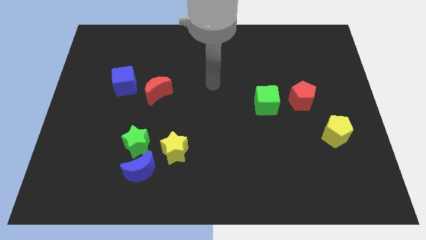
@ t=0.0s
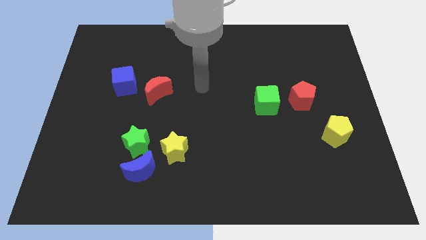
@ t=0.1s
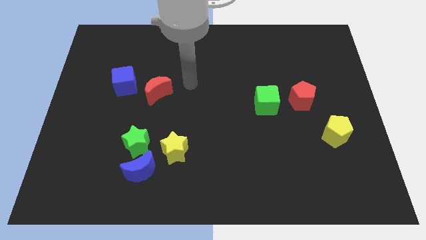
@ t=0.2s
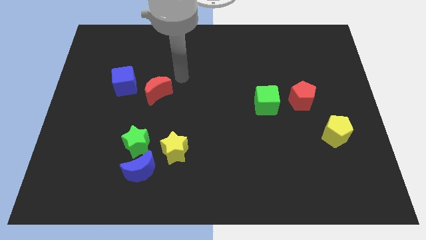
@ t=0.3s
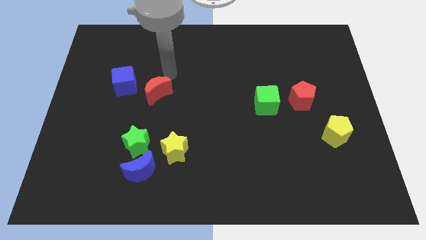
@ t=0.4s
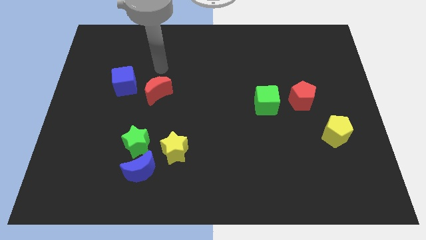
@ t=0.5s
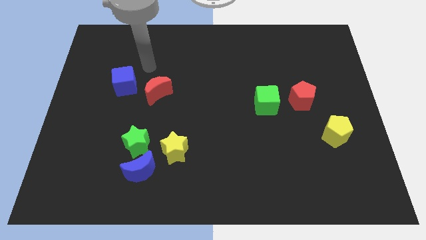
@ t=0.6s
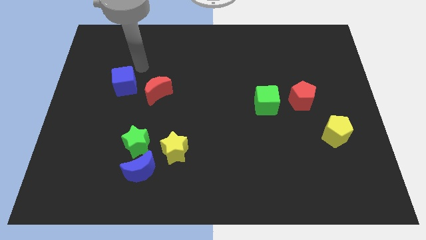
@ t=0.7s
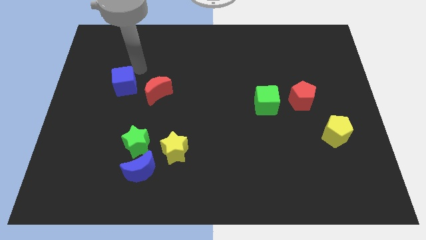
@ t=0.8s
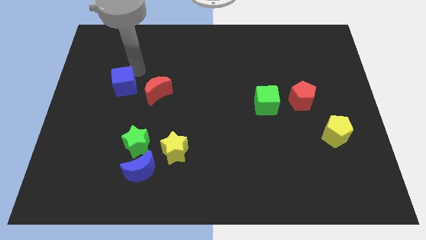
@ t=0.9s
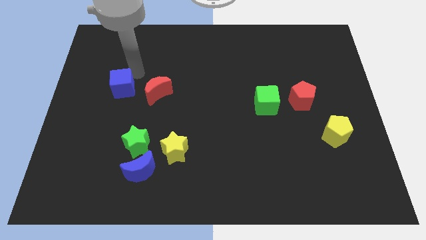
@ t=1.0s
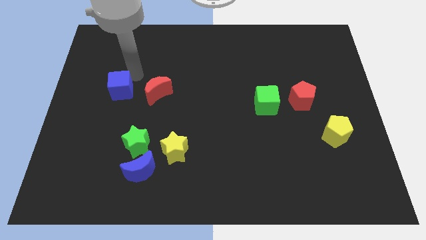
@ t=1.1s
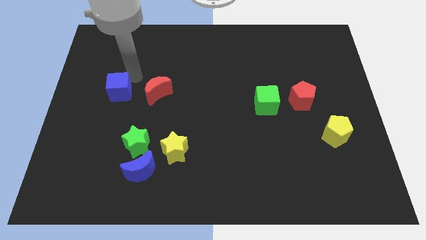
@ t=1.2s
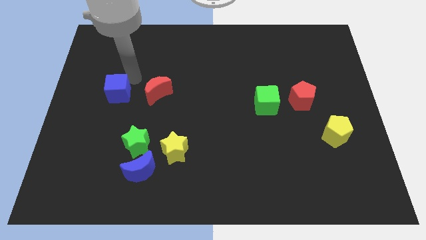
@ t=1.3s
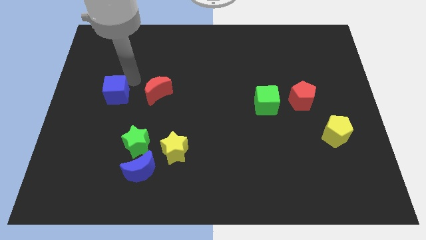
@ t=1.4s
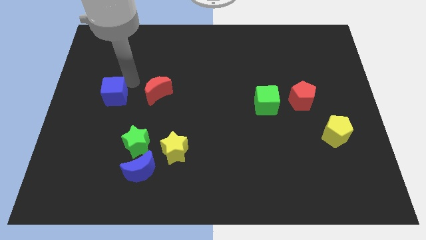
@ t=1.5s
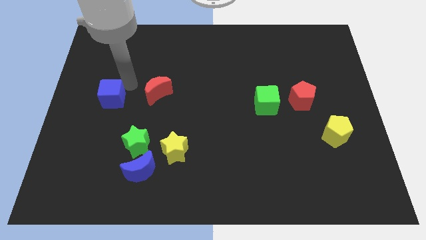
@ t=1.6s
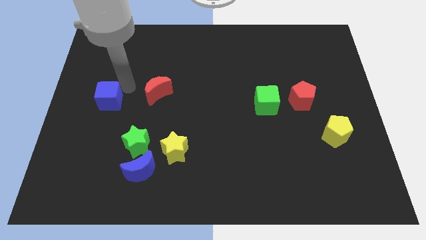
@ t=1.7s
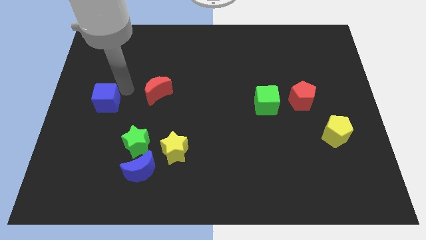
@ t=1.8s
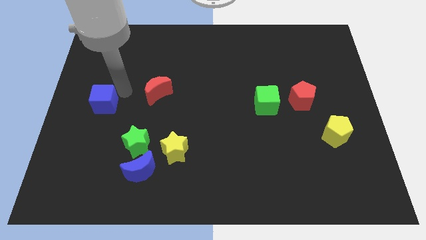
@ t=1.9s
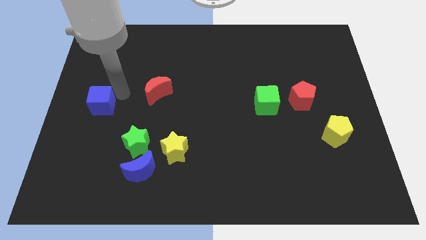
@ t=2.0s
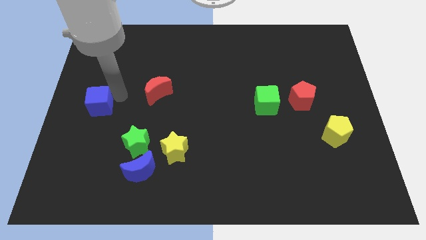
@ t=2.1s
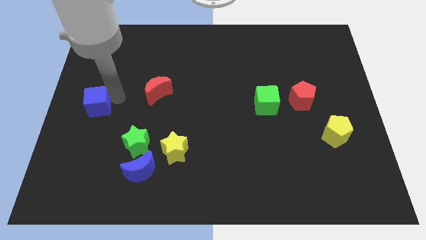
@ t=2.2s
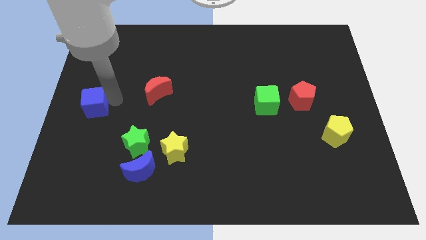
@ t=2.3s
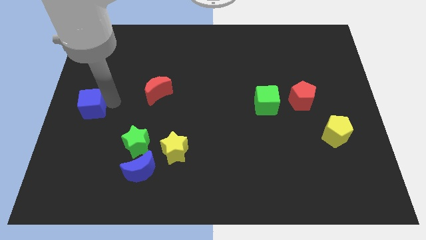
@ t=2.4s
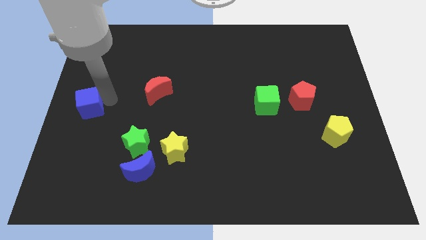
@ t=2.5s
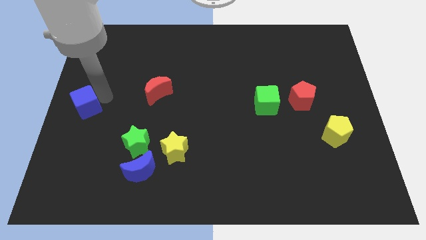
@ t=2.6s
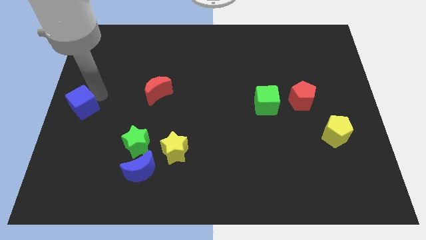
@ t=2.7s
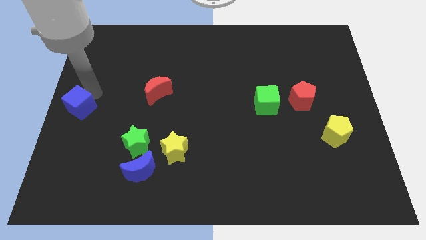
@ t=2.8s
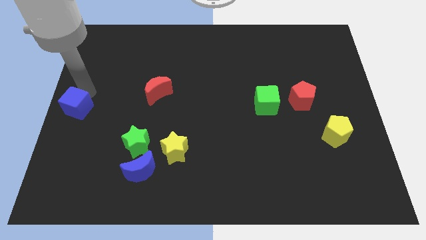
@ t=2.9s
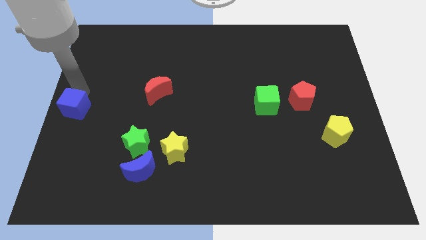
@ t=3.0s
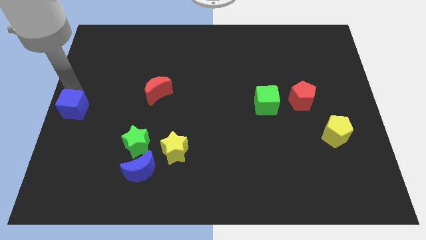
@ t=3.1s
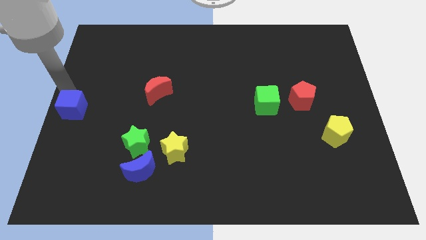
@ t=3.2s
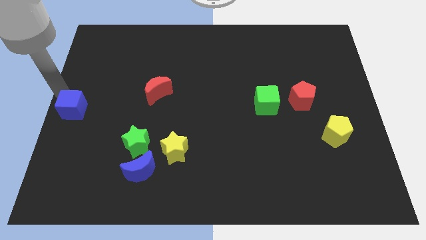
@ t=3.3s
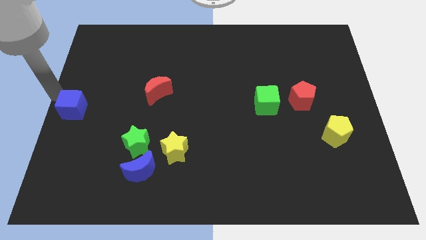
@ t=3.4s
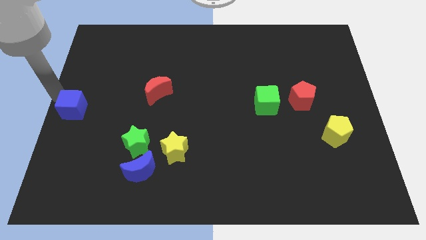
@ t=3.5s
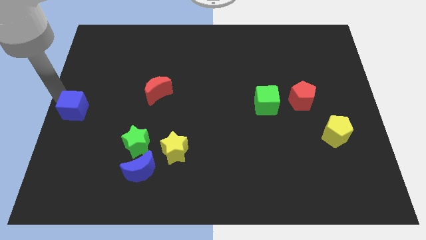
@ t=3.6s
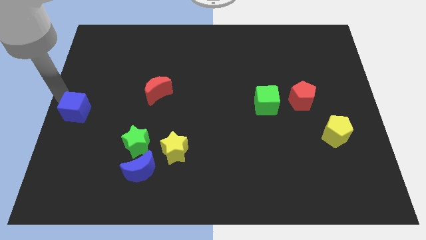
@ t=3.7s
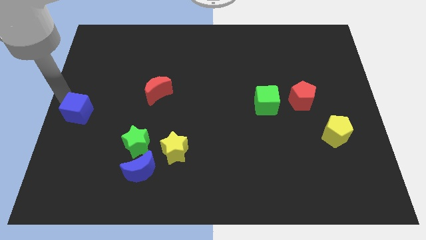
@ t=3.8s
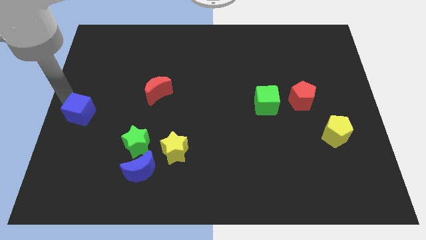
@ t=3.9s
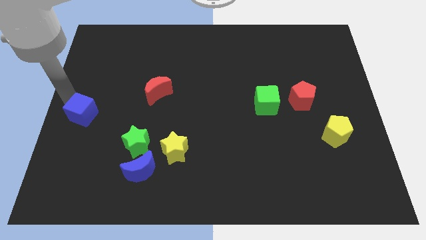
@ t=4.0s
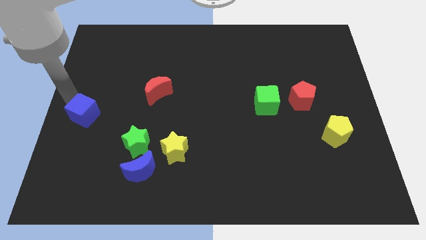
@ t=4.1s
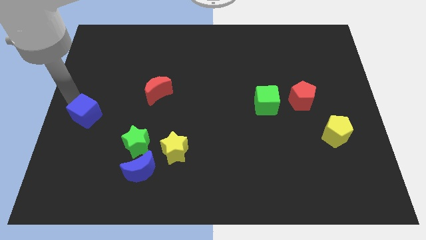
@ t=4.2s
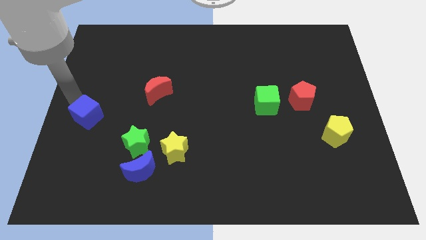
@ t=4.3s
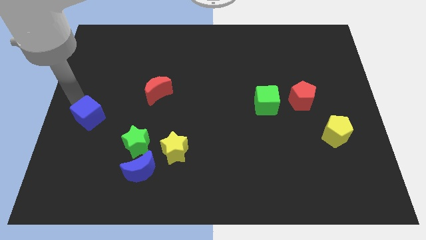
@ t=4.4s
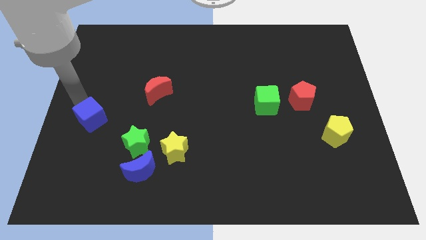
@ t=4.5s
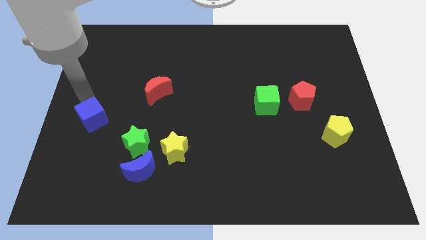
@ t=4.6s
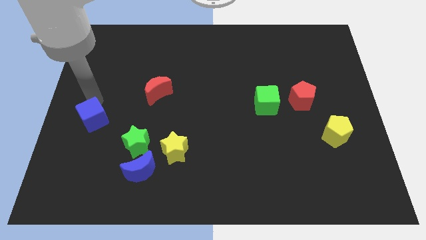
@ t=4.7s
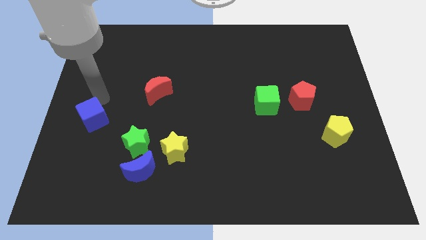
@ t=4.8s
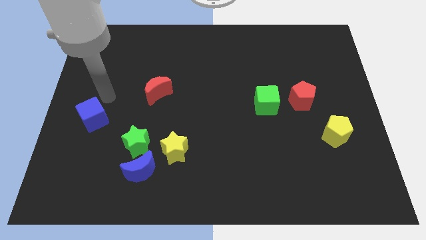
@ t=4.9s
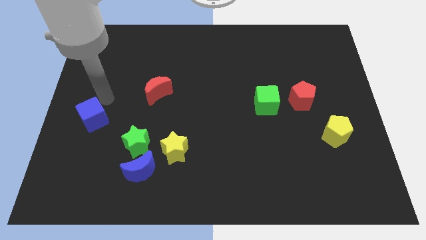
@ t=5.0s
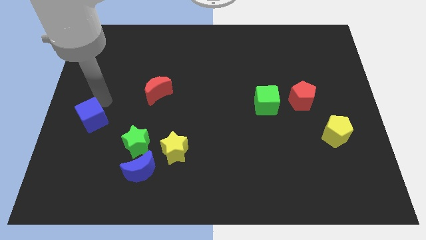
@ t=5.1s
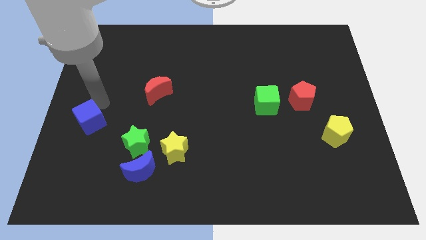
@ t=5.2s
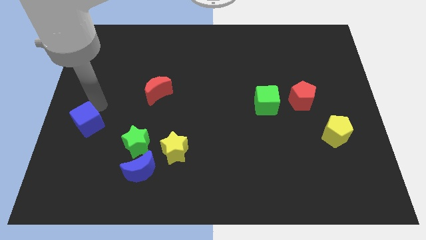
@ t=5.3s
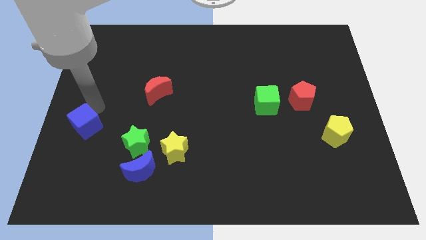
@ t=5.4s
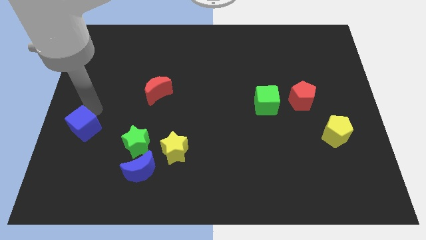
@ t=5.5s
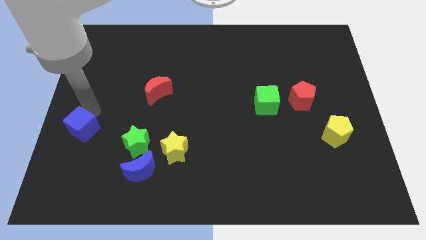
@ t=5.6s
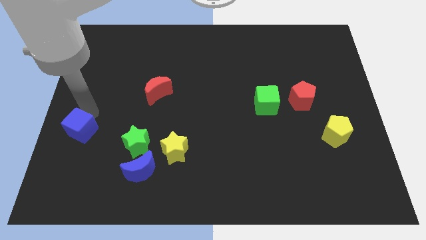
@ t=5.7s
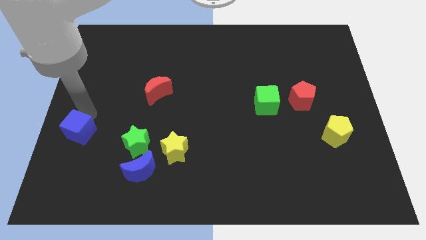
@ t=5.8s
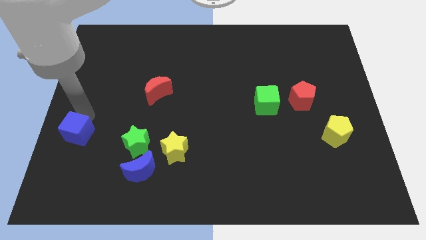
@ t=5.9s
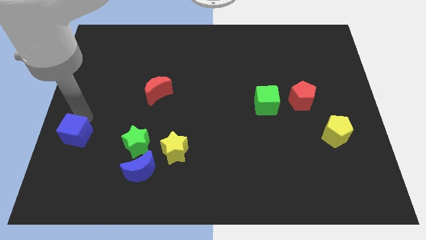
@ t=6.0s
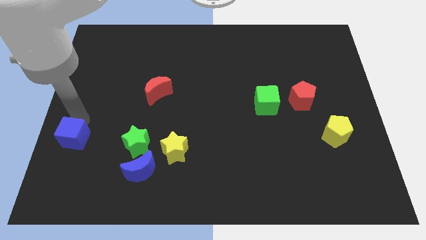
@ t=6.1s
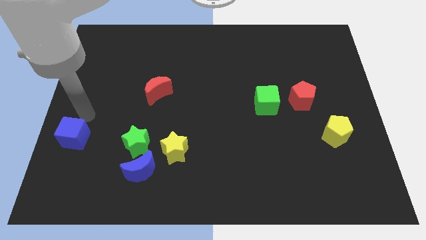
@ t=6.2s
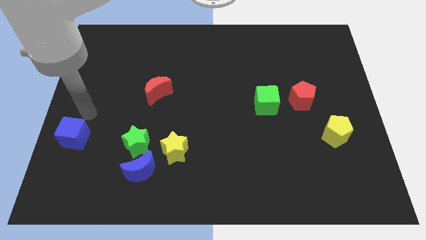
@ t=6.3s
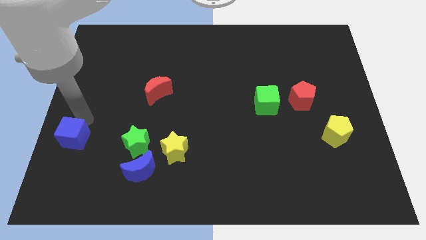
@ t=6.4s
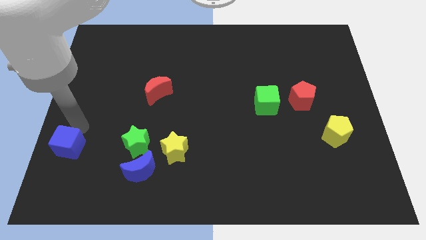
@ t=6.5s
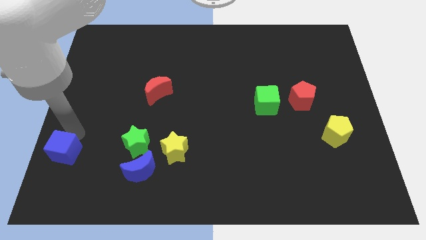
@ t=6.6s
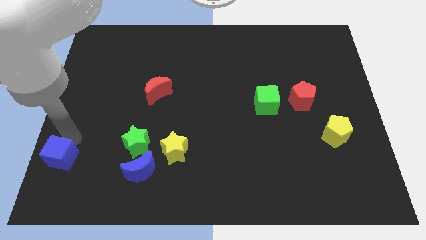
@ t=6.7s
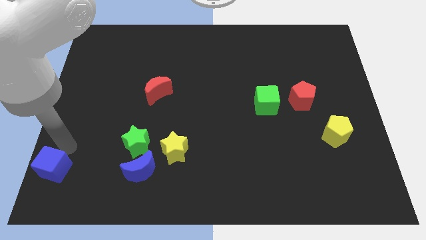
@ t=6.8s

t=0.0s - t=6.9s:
move the blue cube to the bottom left of the board
